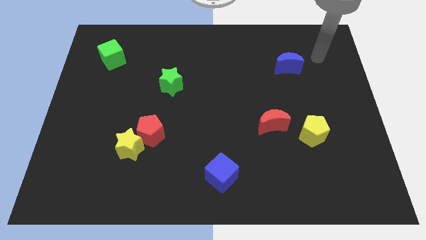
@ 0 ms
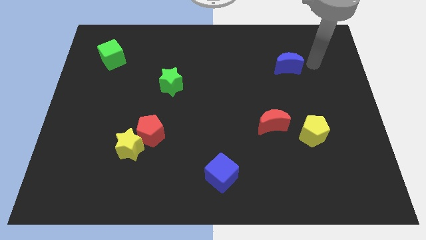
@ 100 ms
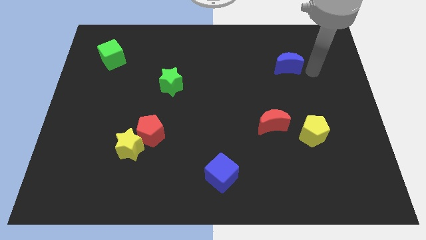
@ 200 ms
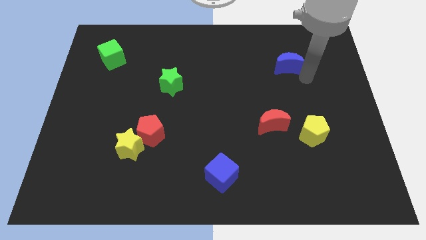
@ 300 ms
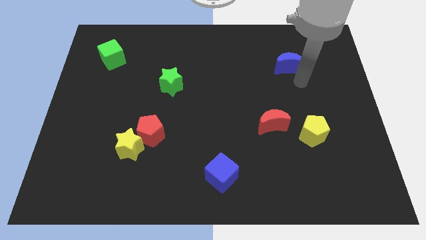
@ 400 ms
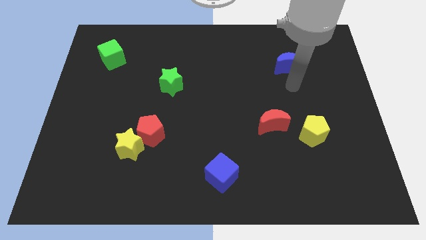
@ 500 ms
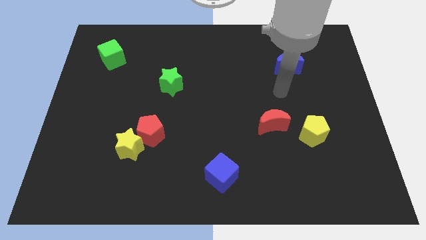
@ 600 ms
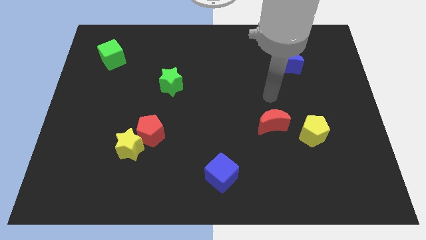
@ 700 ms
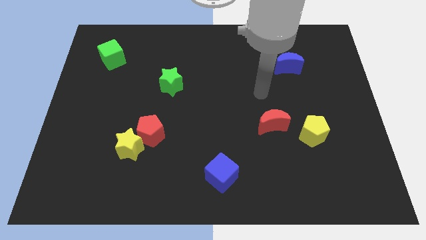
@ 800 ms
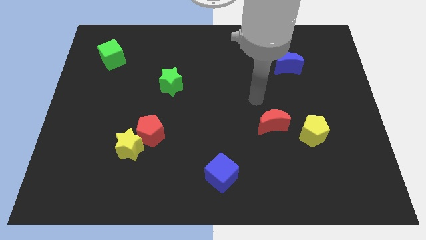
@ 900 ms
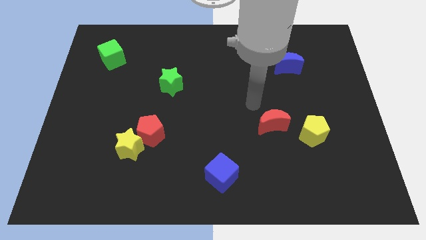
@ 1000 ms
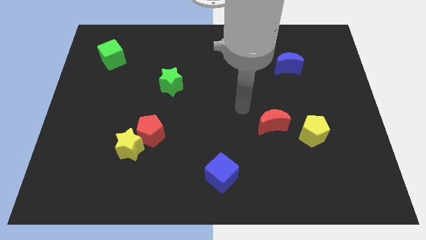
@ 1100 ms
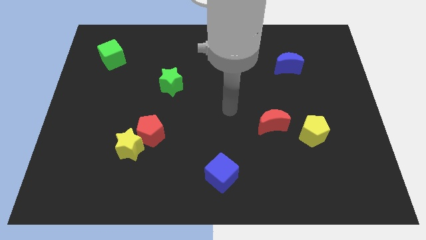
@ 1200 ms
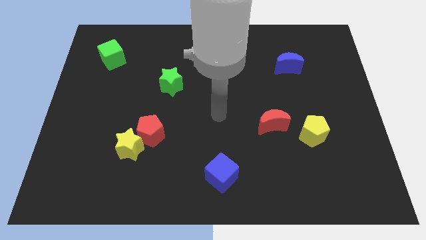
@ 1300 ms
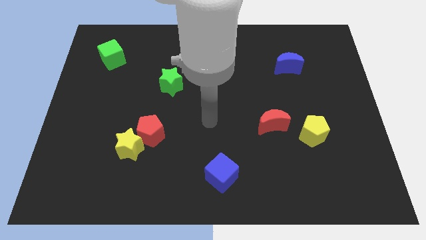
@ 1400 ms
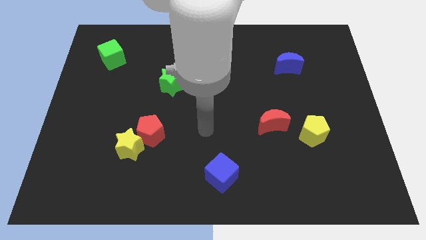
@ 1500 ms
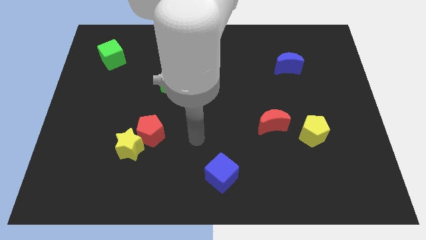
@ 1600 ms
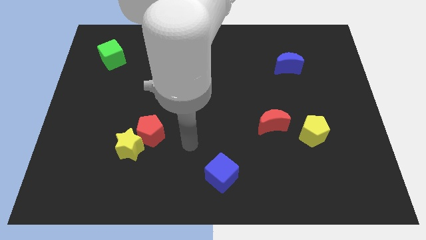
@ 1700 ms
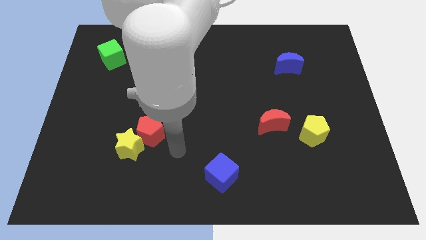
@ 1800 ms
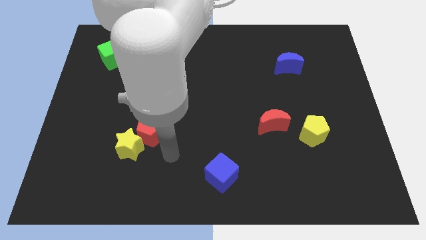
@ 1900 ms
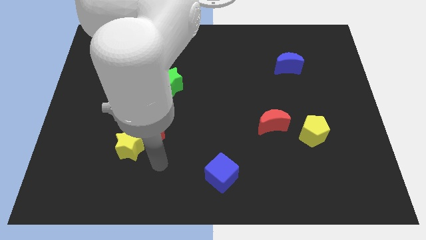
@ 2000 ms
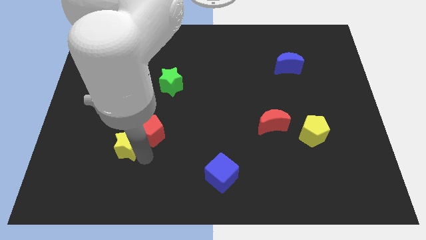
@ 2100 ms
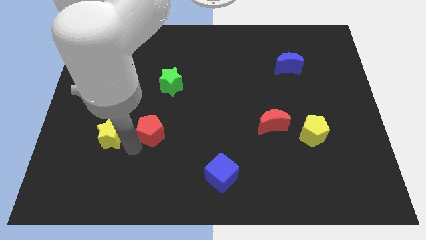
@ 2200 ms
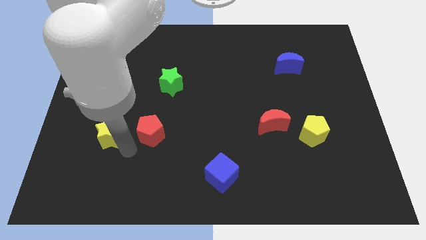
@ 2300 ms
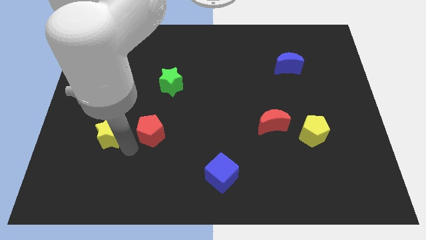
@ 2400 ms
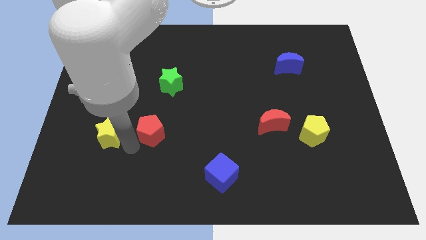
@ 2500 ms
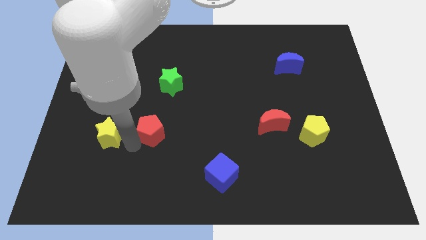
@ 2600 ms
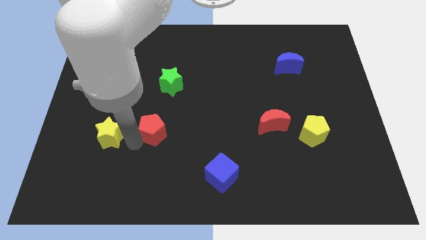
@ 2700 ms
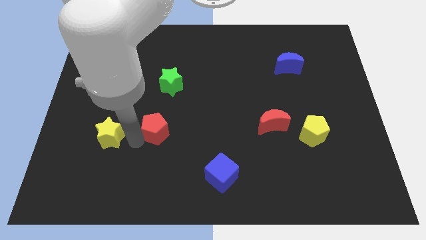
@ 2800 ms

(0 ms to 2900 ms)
separate the red pentagon from the yellow star

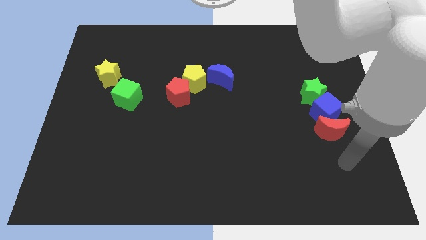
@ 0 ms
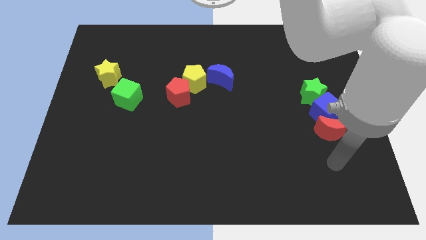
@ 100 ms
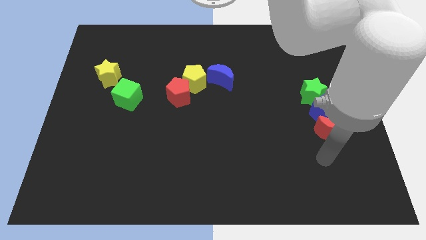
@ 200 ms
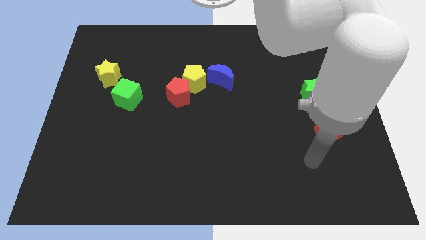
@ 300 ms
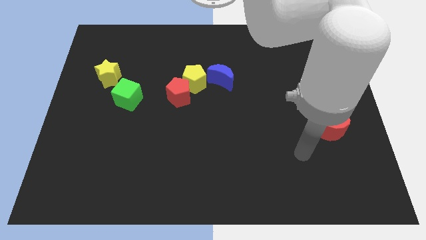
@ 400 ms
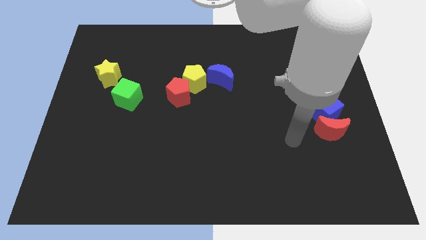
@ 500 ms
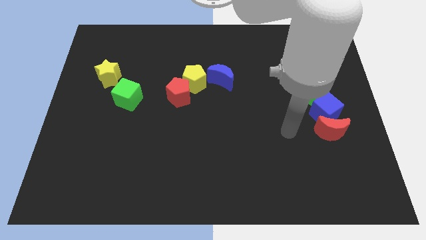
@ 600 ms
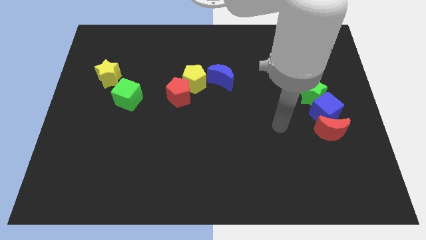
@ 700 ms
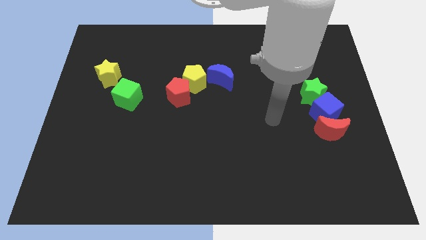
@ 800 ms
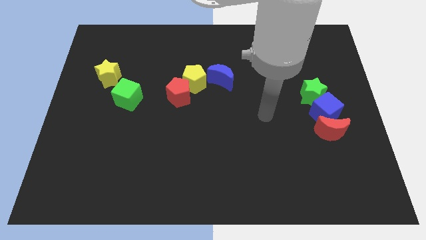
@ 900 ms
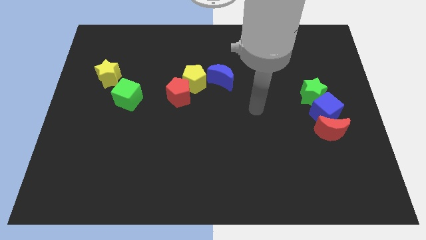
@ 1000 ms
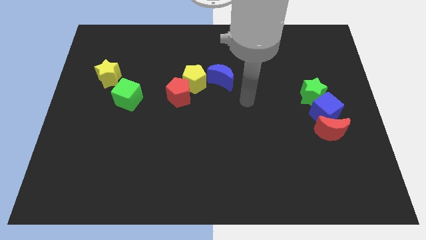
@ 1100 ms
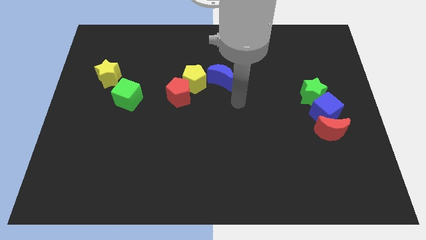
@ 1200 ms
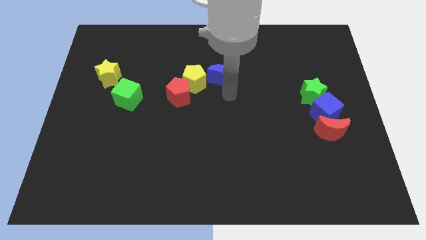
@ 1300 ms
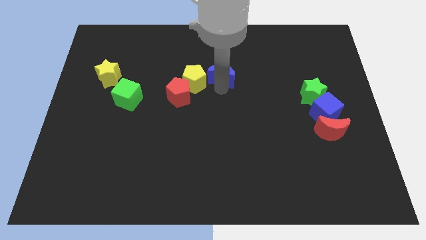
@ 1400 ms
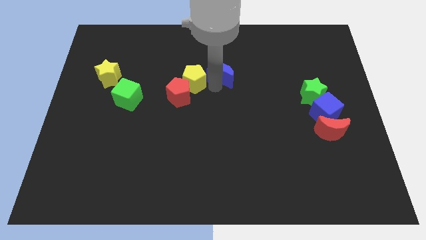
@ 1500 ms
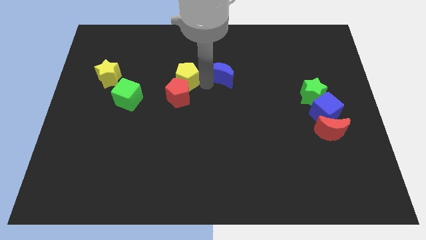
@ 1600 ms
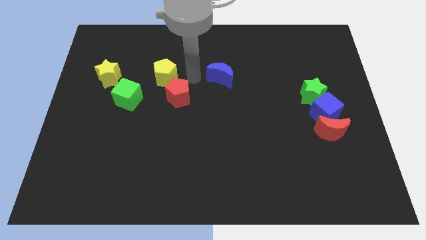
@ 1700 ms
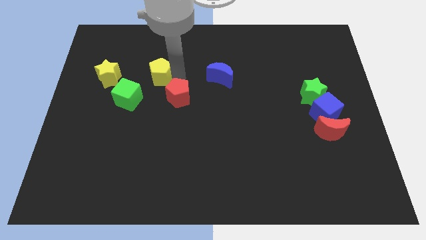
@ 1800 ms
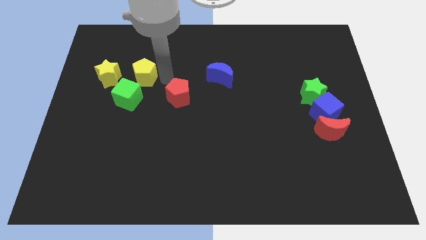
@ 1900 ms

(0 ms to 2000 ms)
move the red pentagon away from the yellow pentagon

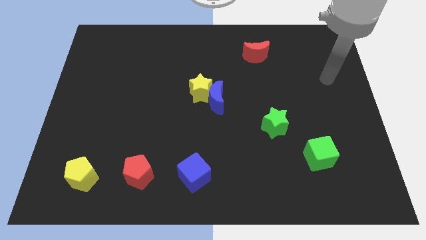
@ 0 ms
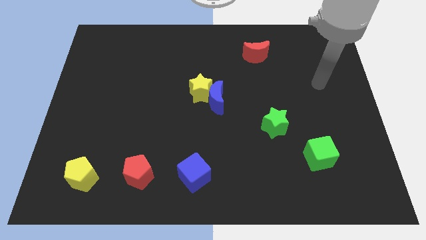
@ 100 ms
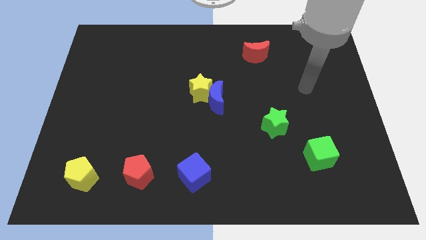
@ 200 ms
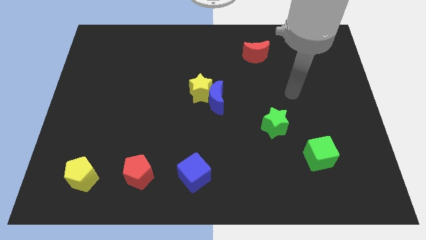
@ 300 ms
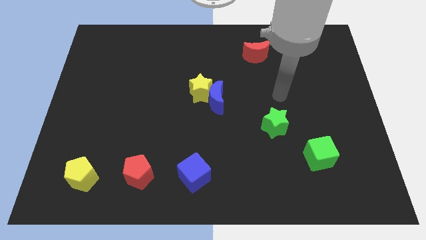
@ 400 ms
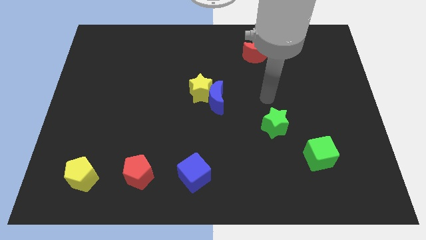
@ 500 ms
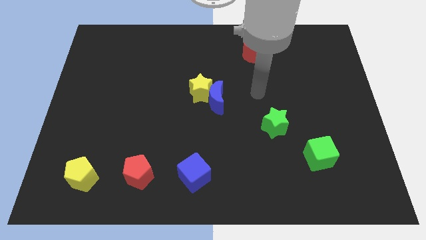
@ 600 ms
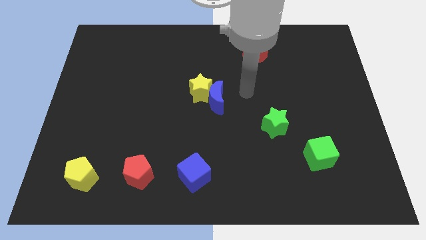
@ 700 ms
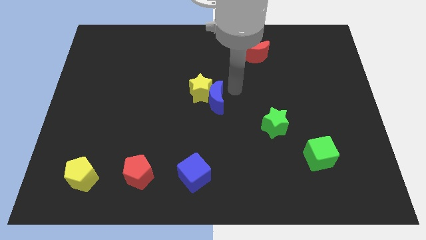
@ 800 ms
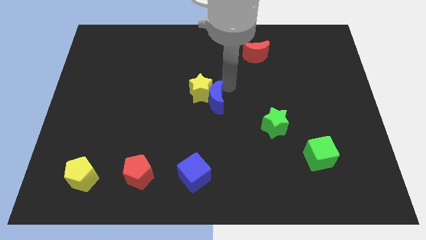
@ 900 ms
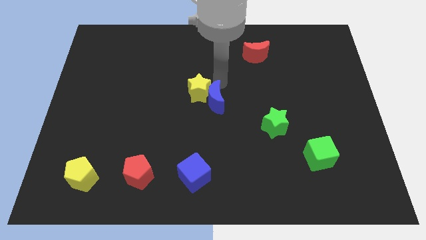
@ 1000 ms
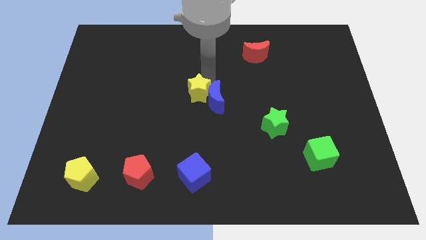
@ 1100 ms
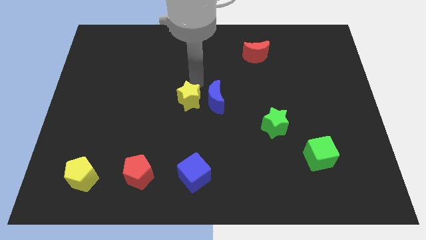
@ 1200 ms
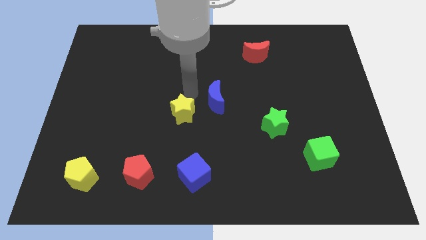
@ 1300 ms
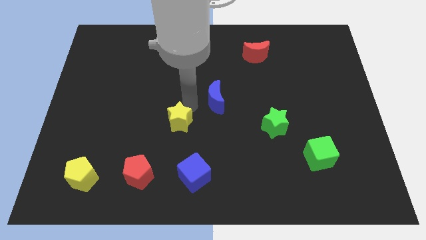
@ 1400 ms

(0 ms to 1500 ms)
pull the blue moon apart from the yellow star

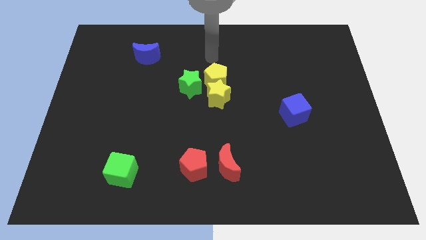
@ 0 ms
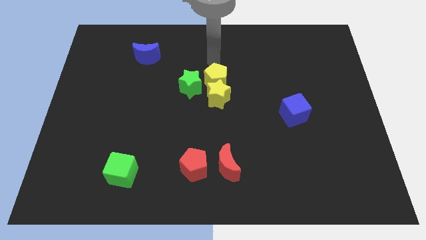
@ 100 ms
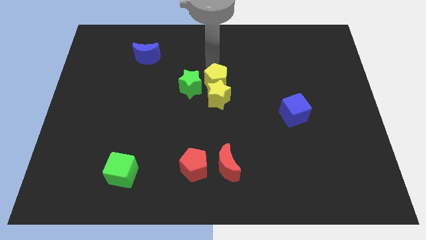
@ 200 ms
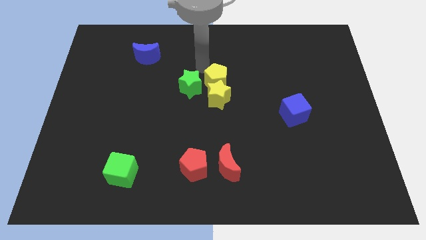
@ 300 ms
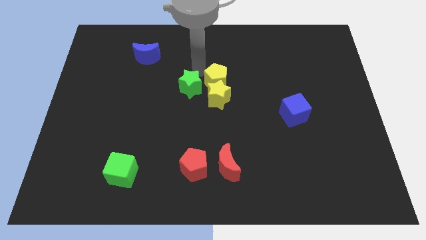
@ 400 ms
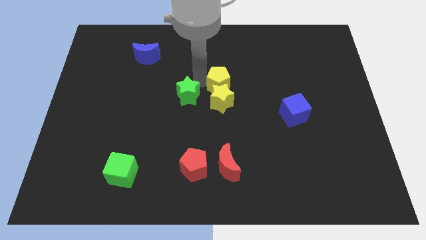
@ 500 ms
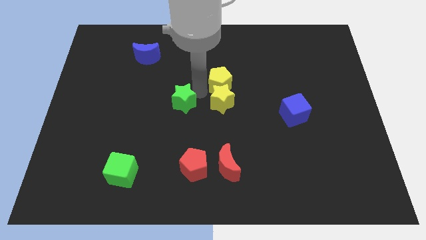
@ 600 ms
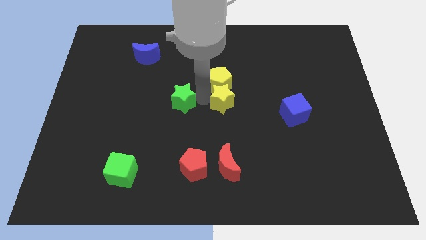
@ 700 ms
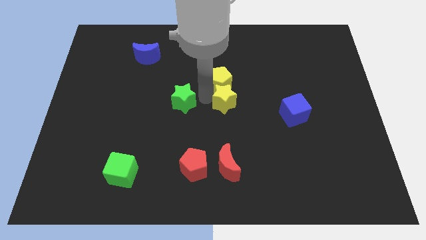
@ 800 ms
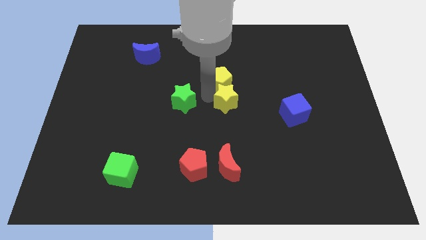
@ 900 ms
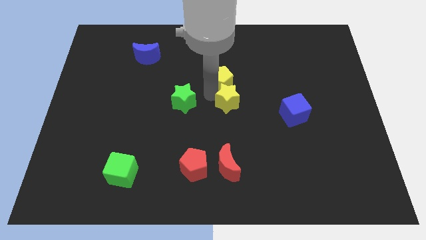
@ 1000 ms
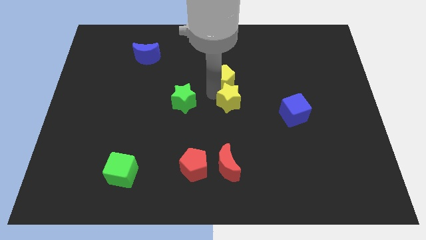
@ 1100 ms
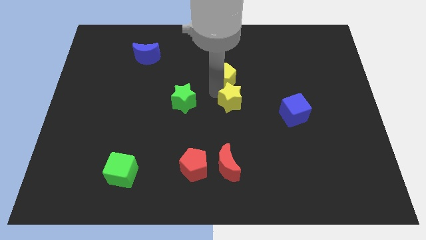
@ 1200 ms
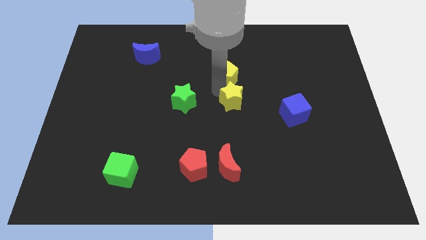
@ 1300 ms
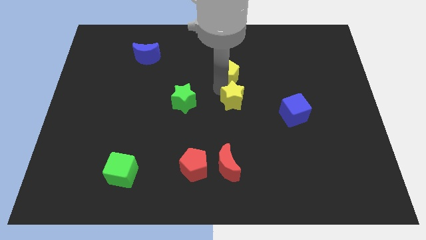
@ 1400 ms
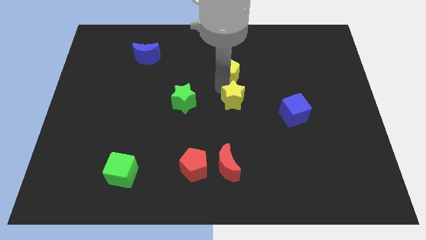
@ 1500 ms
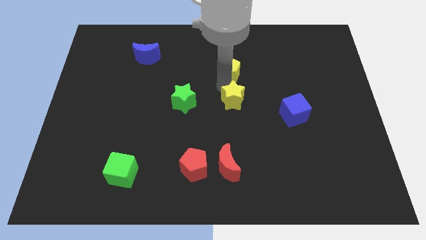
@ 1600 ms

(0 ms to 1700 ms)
pull the yellow pentagon apart from the yellow star and green star

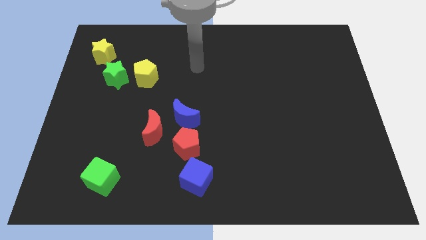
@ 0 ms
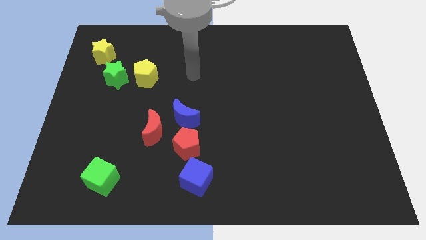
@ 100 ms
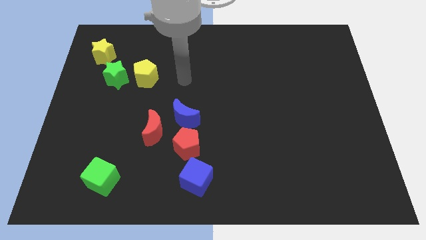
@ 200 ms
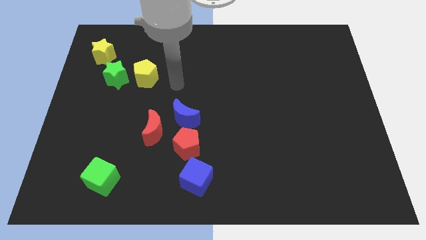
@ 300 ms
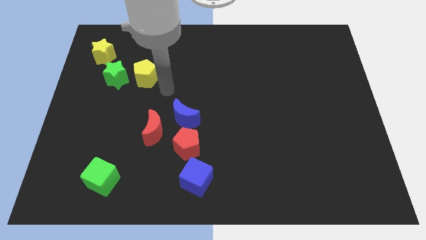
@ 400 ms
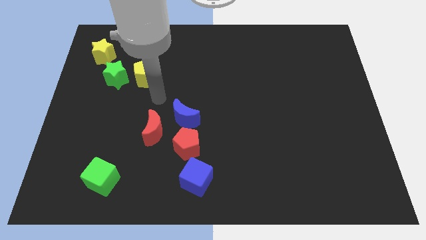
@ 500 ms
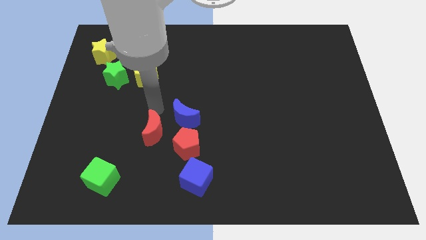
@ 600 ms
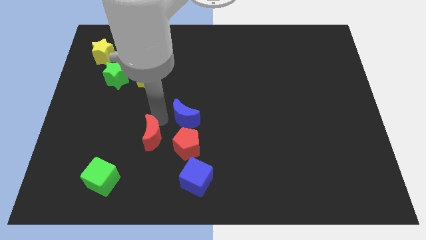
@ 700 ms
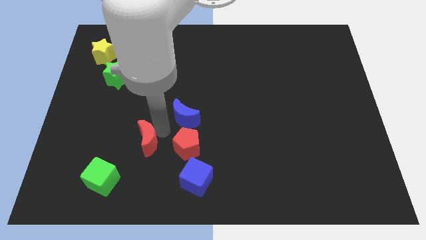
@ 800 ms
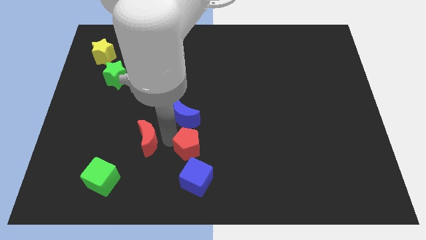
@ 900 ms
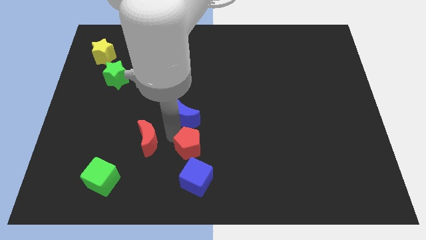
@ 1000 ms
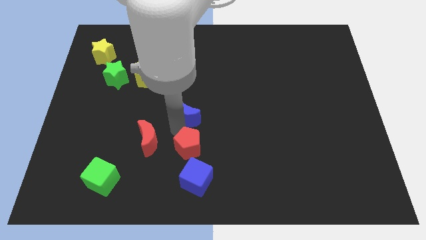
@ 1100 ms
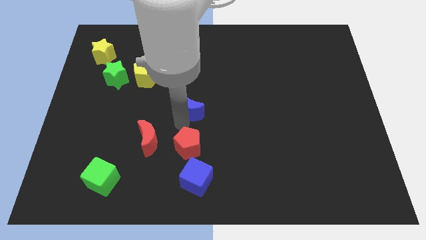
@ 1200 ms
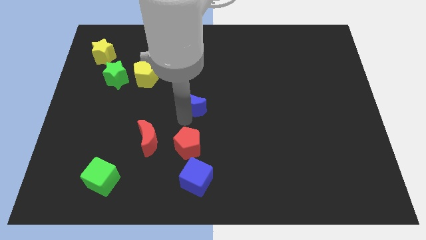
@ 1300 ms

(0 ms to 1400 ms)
move the blue moon away from the red moon and red pentagon
